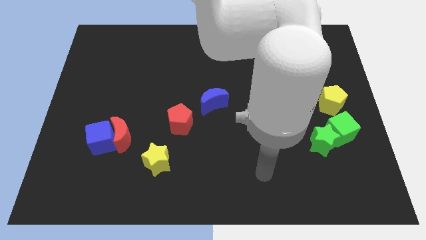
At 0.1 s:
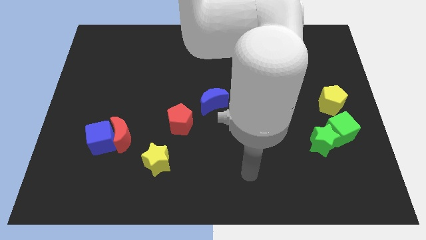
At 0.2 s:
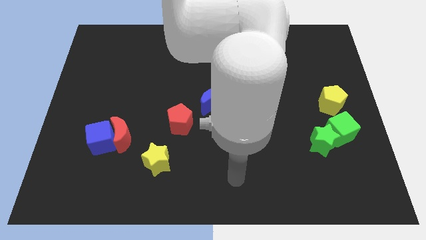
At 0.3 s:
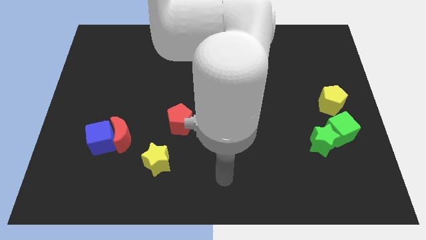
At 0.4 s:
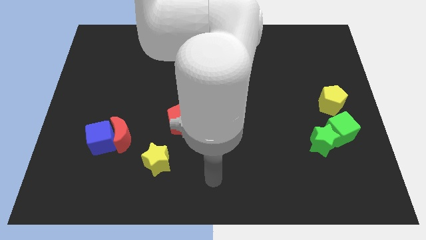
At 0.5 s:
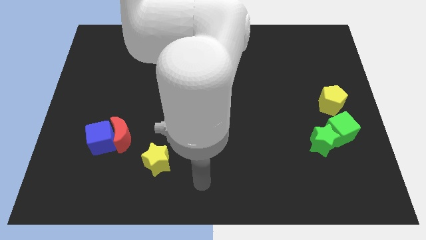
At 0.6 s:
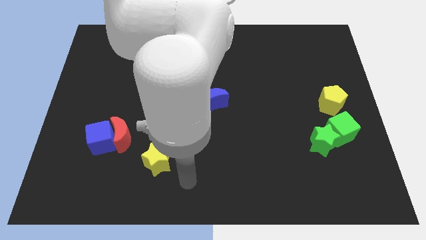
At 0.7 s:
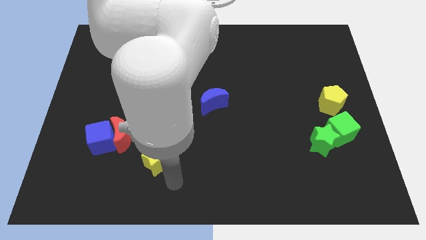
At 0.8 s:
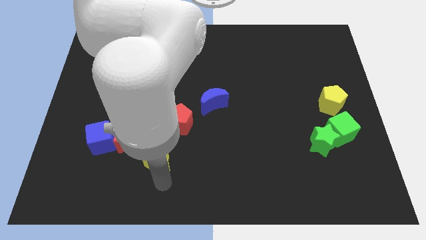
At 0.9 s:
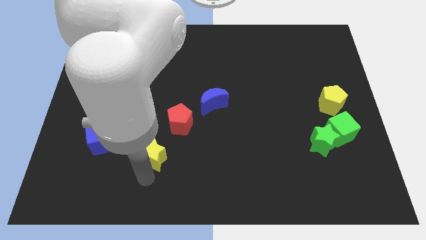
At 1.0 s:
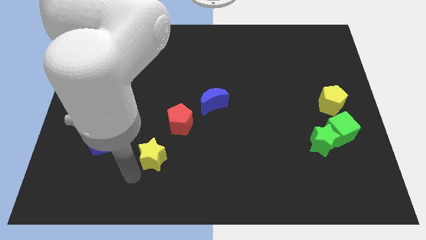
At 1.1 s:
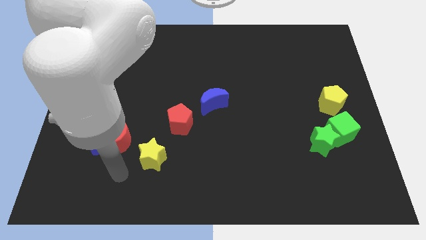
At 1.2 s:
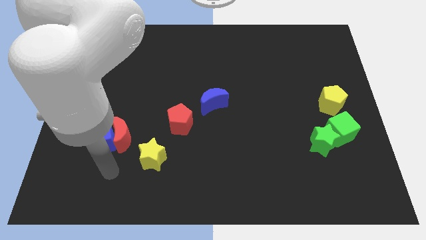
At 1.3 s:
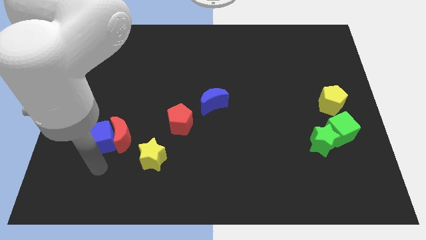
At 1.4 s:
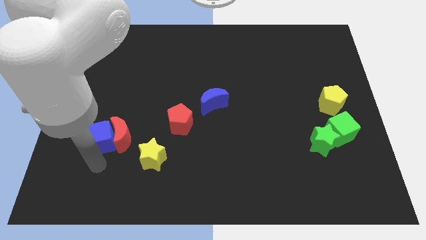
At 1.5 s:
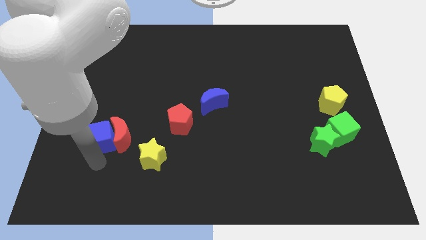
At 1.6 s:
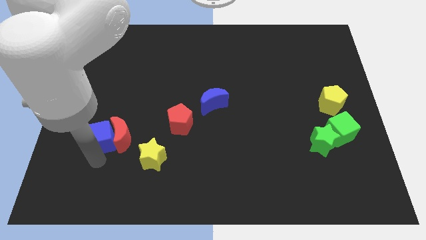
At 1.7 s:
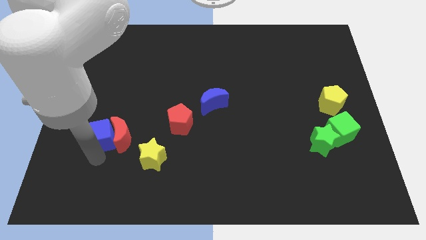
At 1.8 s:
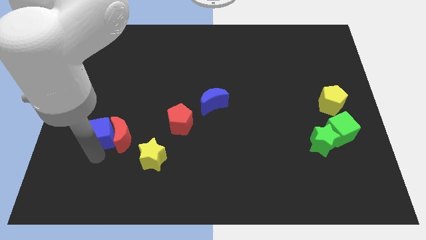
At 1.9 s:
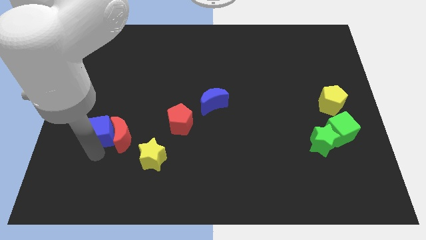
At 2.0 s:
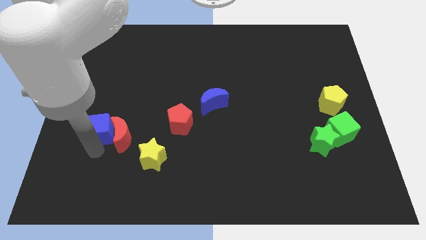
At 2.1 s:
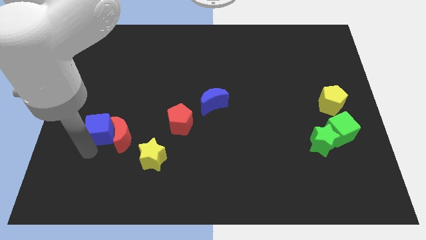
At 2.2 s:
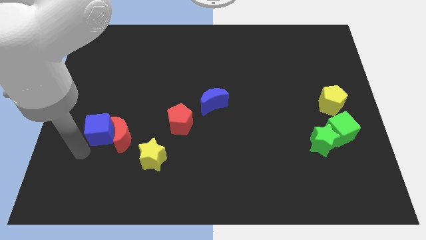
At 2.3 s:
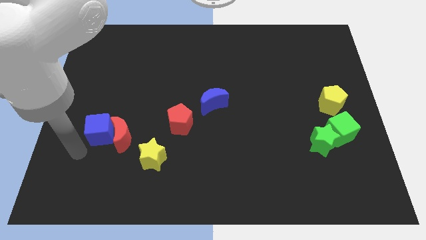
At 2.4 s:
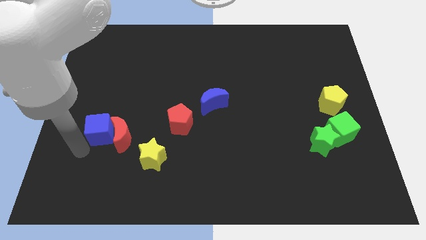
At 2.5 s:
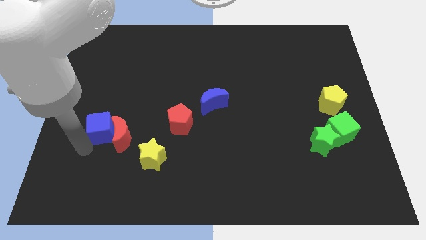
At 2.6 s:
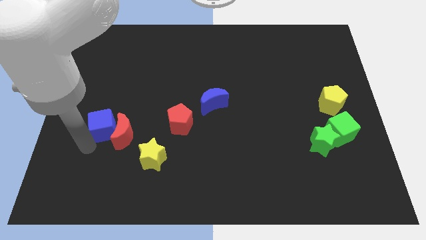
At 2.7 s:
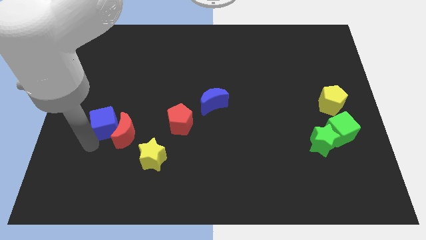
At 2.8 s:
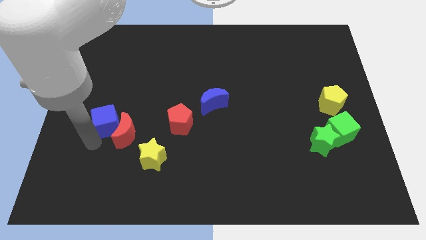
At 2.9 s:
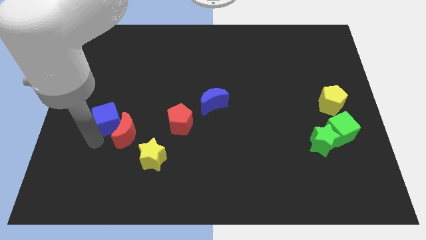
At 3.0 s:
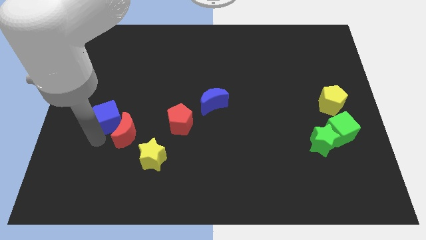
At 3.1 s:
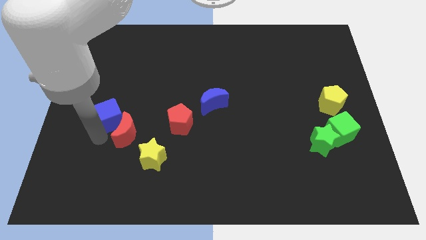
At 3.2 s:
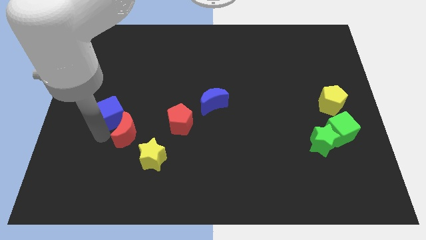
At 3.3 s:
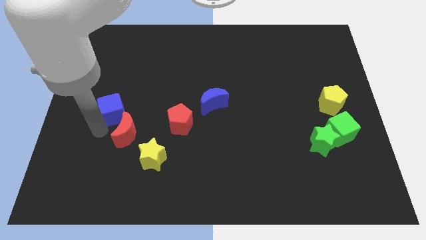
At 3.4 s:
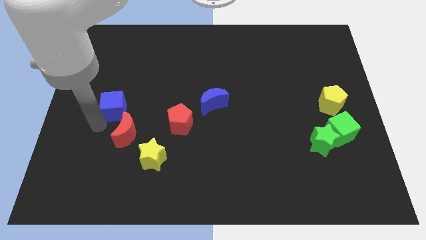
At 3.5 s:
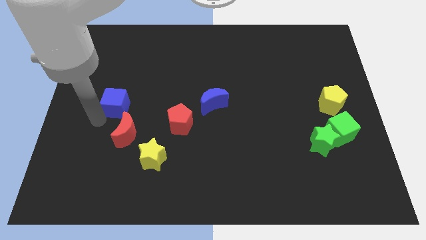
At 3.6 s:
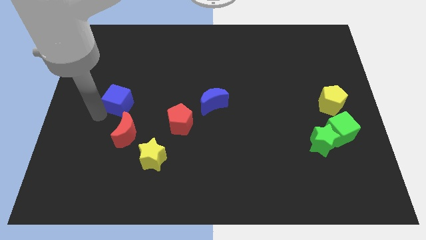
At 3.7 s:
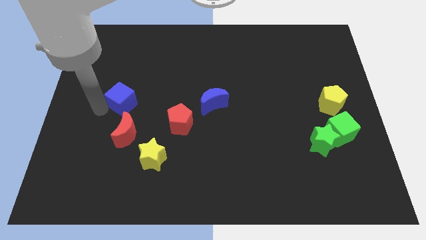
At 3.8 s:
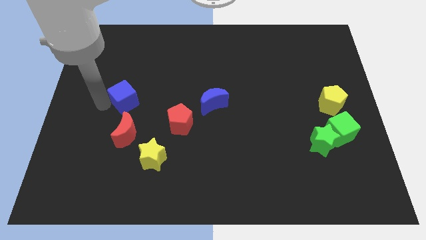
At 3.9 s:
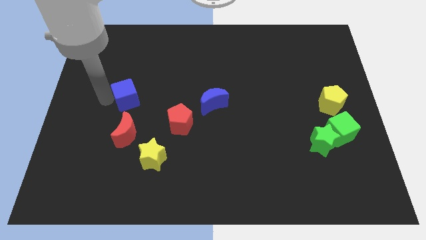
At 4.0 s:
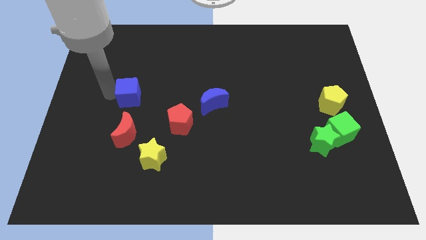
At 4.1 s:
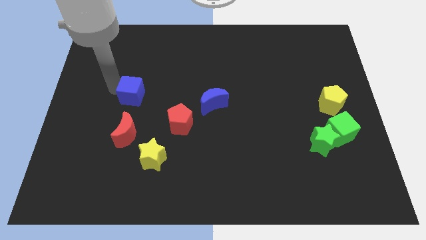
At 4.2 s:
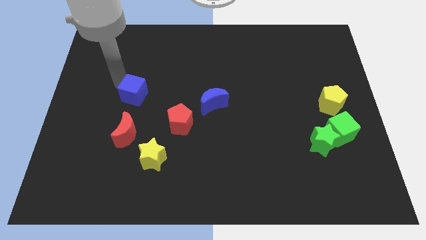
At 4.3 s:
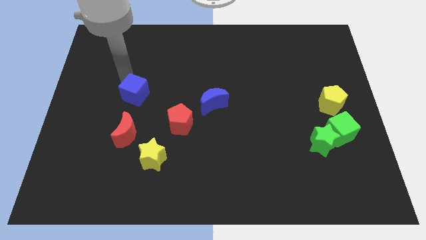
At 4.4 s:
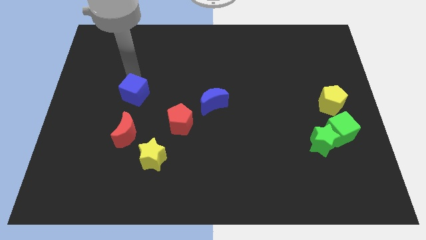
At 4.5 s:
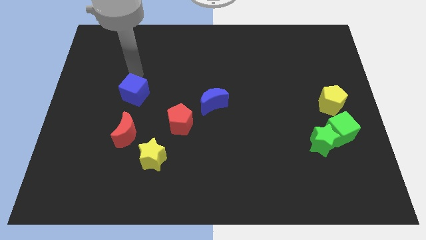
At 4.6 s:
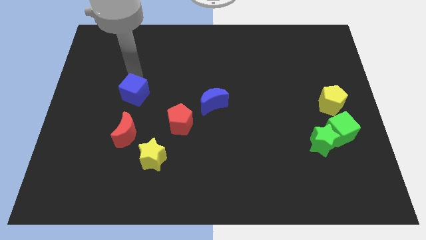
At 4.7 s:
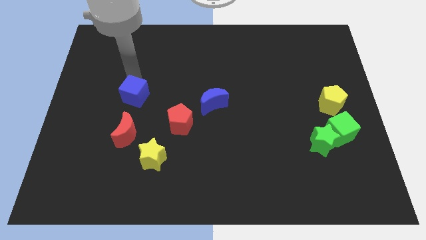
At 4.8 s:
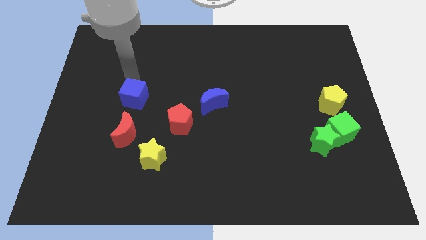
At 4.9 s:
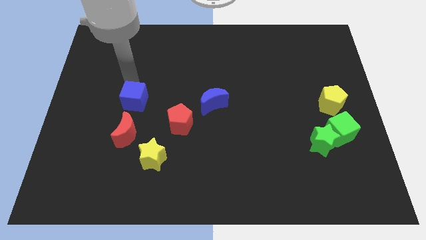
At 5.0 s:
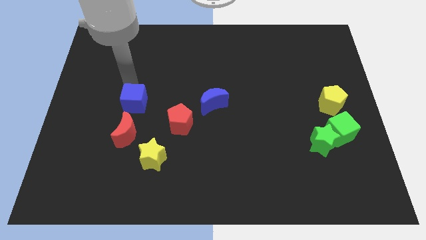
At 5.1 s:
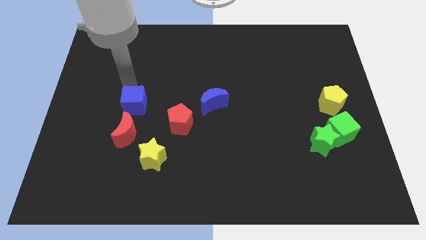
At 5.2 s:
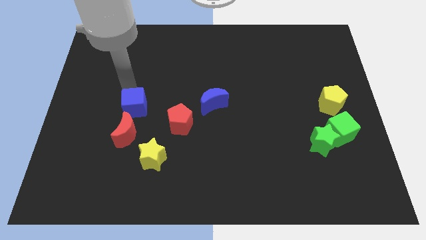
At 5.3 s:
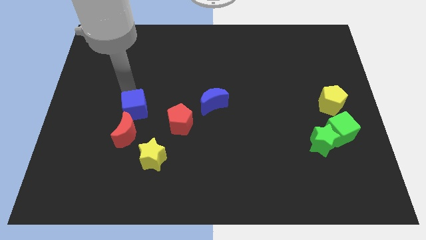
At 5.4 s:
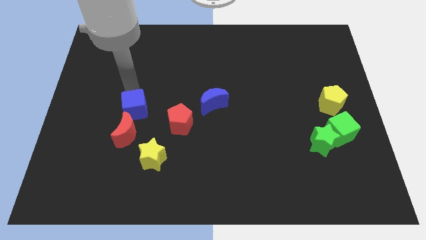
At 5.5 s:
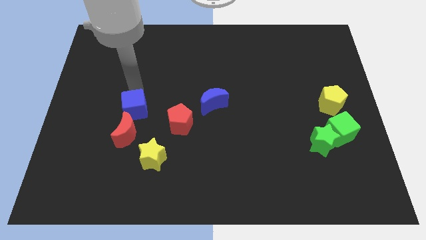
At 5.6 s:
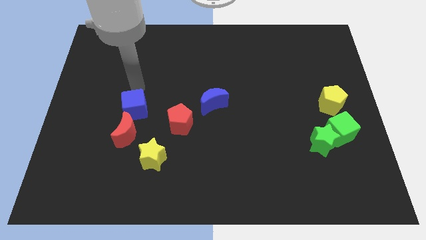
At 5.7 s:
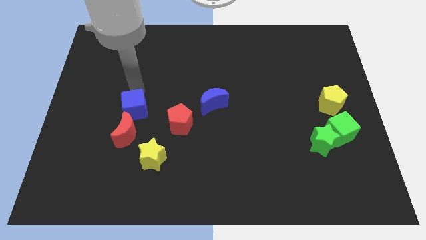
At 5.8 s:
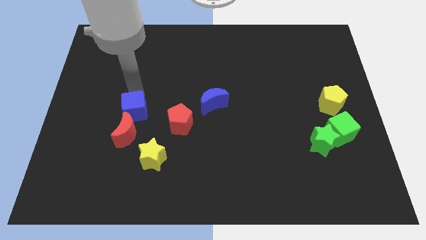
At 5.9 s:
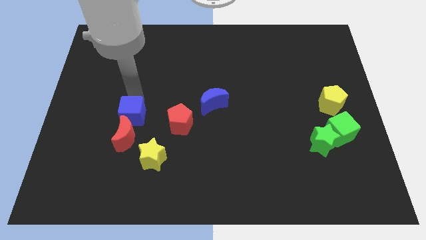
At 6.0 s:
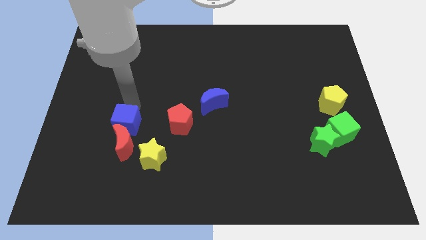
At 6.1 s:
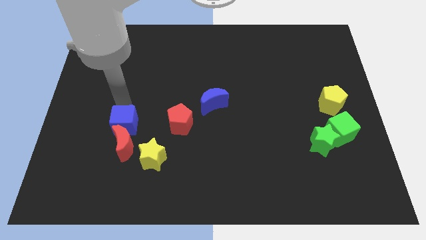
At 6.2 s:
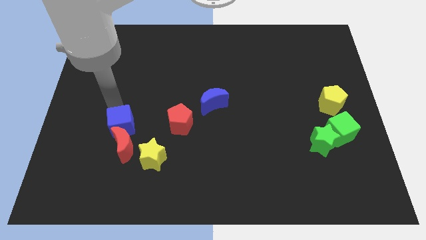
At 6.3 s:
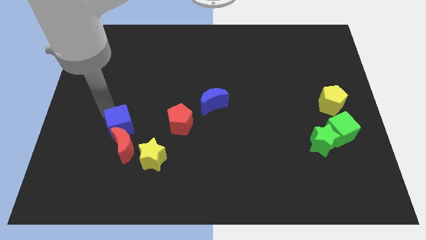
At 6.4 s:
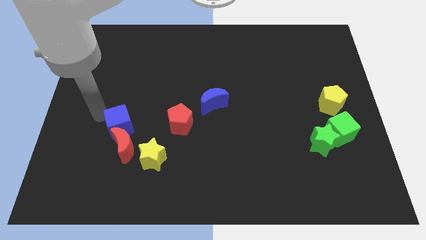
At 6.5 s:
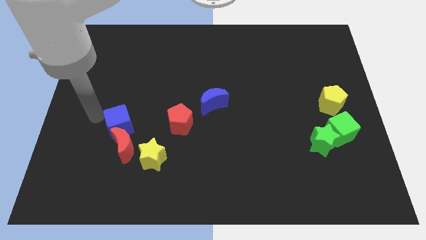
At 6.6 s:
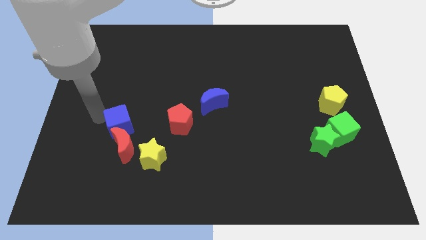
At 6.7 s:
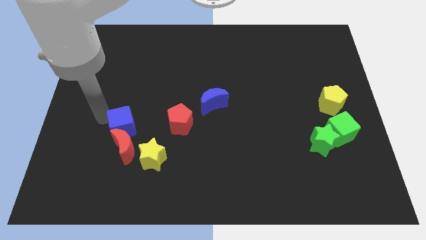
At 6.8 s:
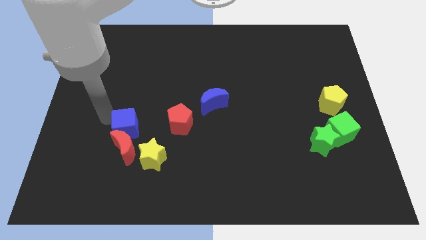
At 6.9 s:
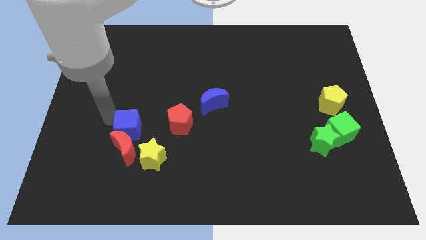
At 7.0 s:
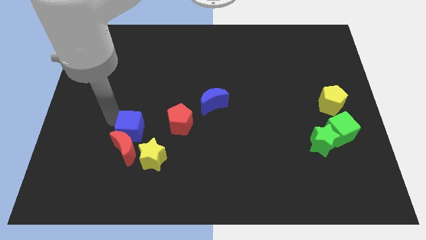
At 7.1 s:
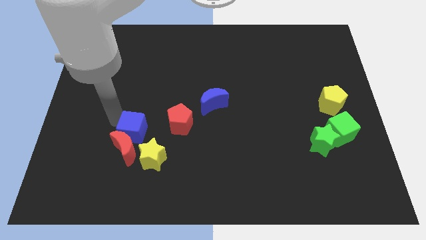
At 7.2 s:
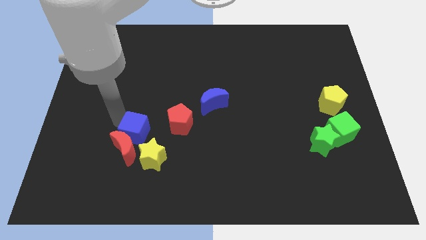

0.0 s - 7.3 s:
slide the blue cube to the right somewhat

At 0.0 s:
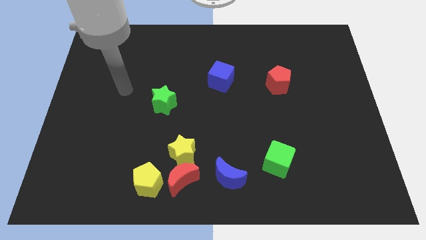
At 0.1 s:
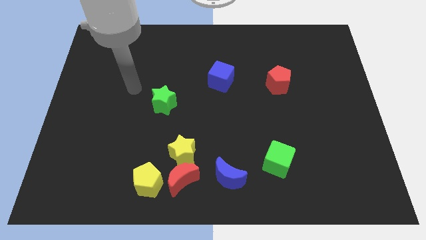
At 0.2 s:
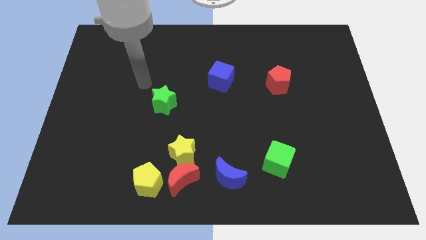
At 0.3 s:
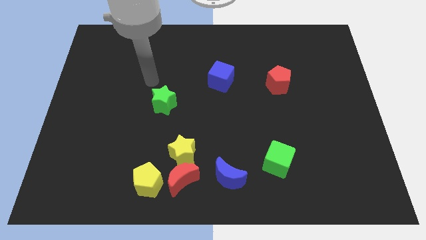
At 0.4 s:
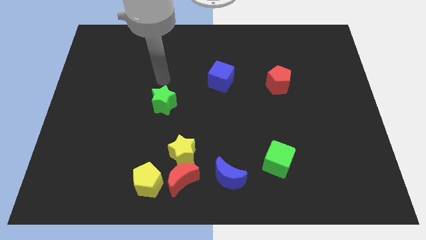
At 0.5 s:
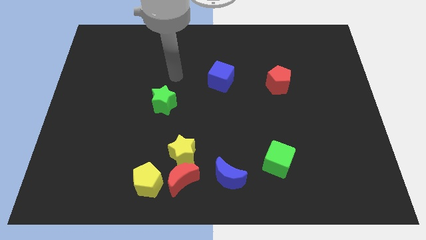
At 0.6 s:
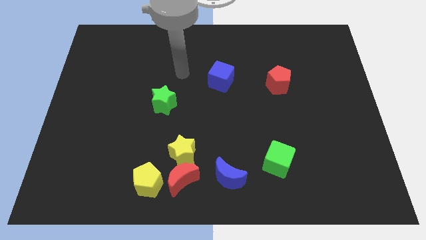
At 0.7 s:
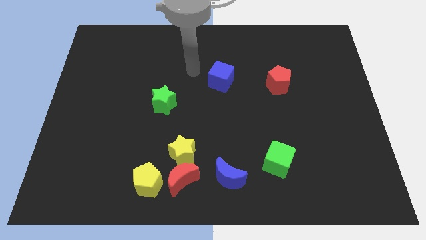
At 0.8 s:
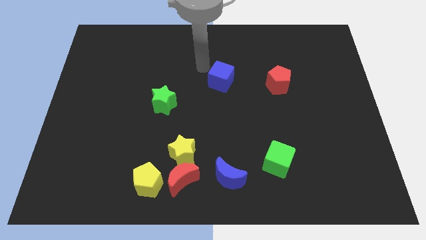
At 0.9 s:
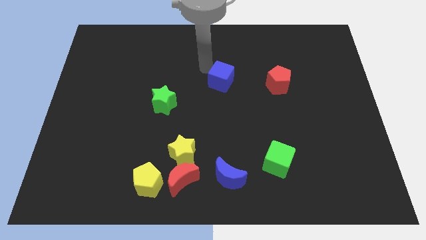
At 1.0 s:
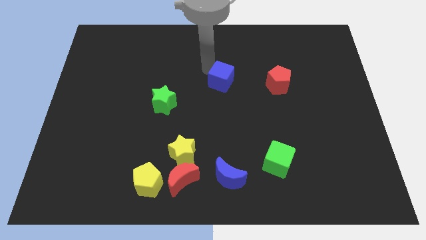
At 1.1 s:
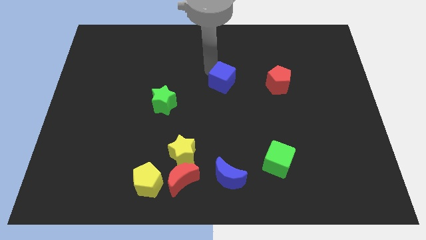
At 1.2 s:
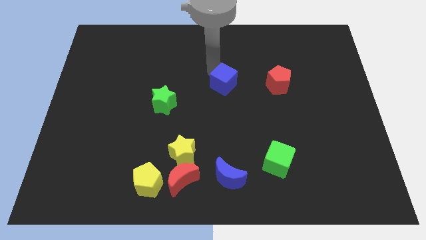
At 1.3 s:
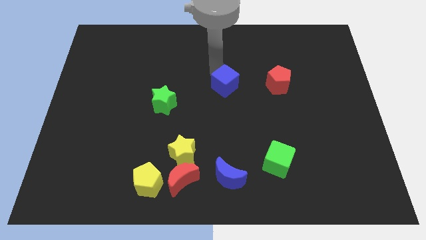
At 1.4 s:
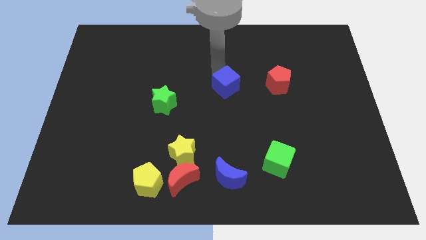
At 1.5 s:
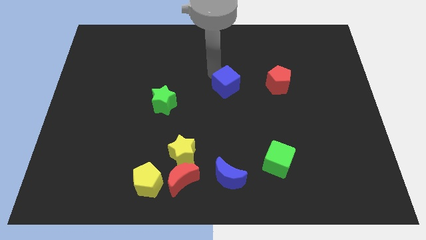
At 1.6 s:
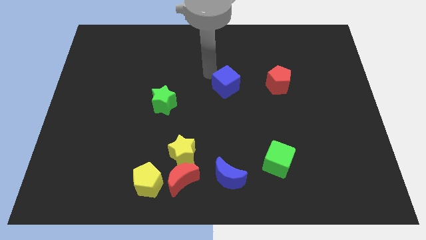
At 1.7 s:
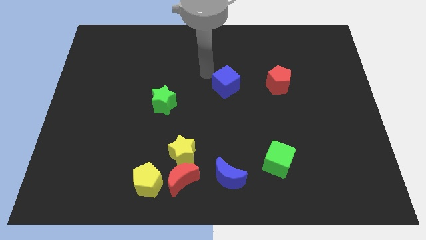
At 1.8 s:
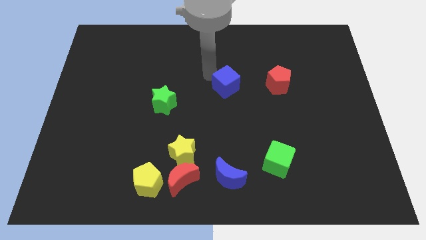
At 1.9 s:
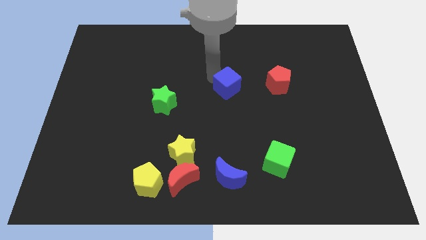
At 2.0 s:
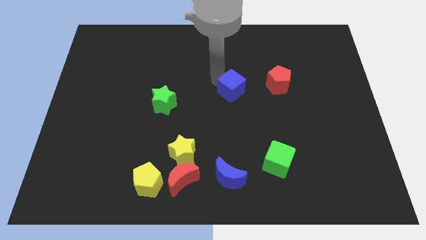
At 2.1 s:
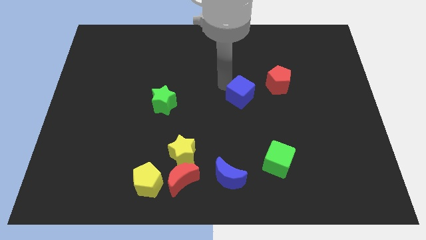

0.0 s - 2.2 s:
slide the blue cube a little down and then to the right
